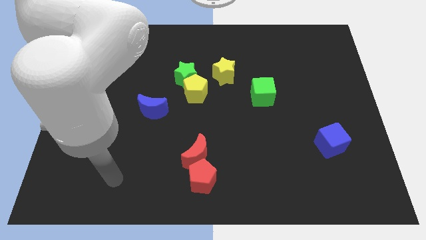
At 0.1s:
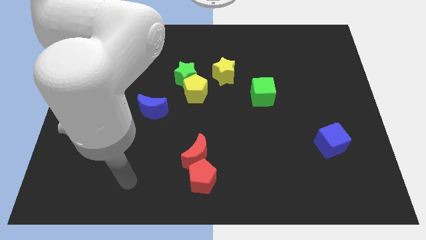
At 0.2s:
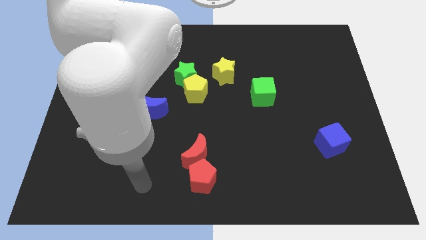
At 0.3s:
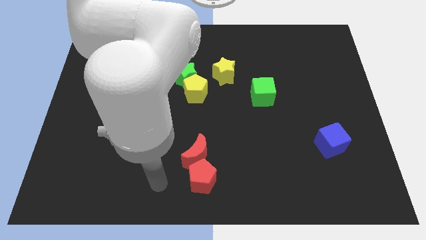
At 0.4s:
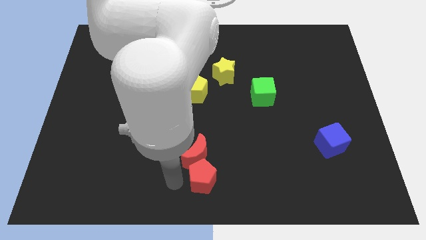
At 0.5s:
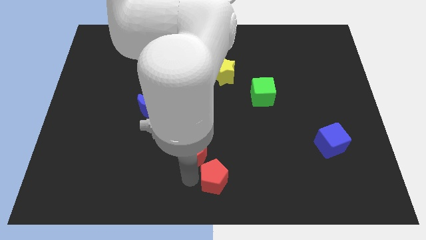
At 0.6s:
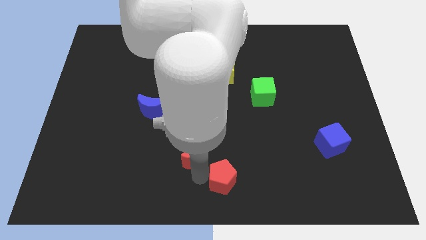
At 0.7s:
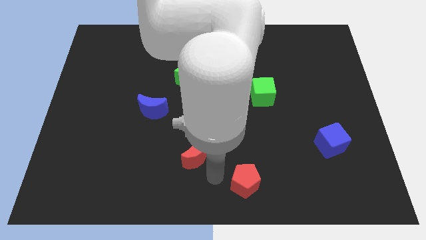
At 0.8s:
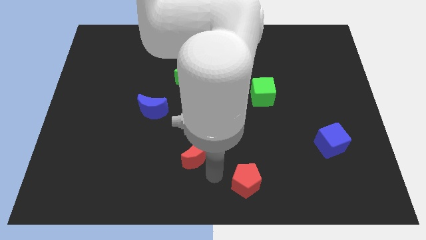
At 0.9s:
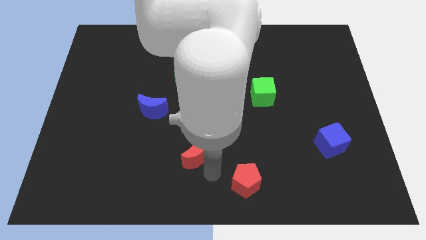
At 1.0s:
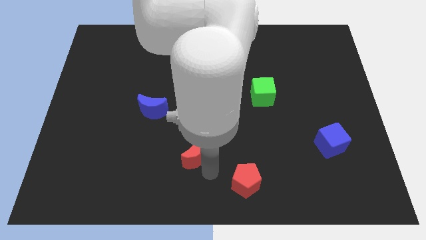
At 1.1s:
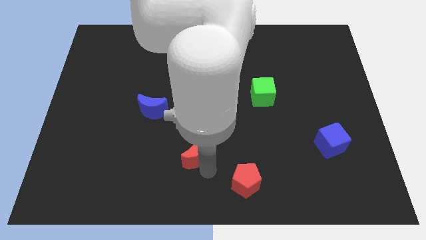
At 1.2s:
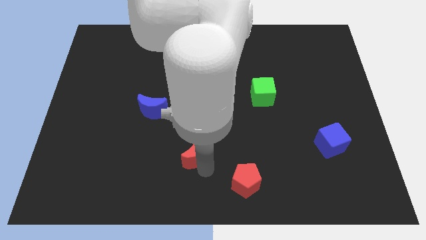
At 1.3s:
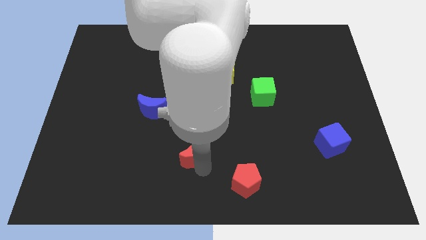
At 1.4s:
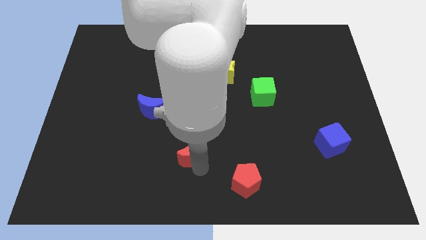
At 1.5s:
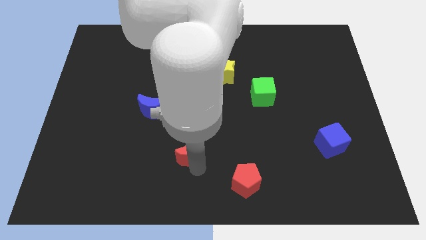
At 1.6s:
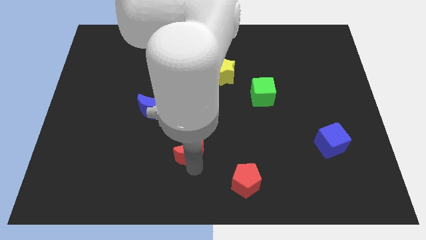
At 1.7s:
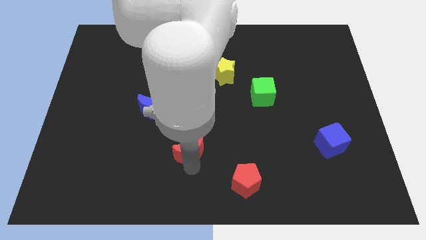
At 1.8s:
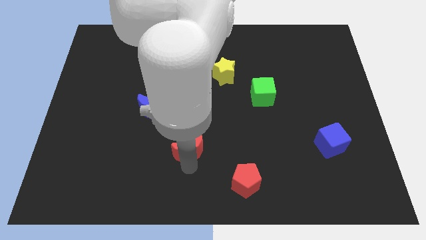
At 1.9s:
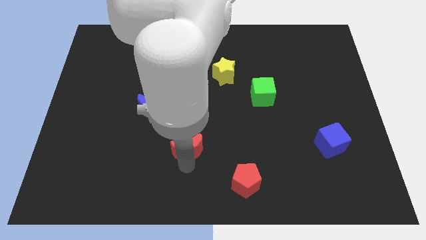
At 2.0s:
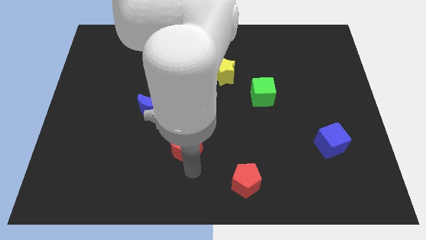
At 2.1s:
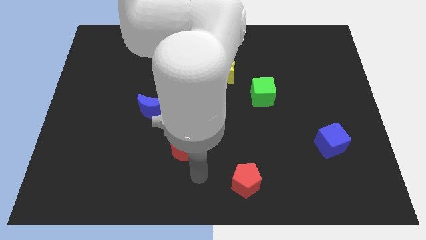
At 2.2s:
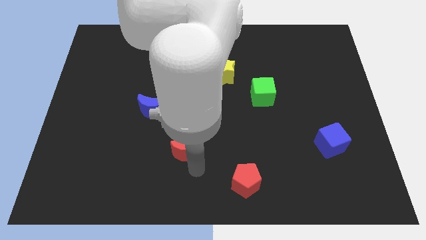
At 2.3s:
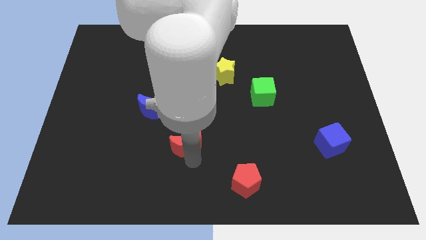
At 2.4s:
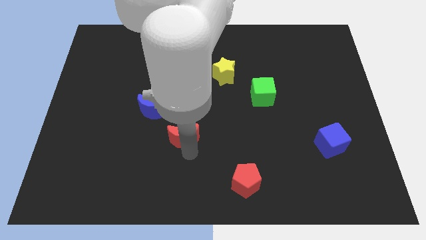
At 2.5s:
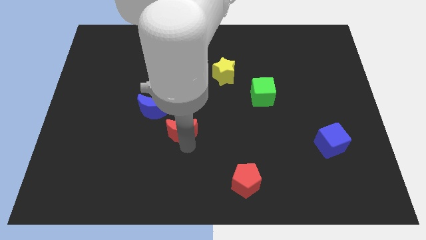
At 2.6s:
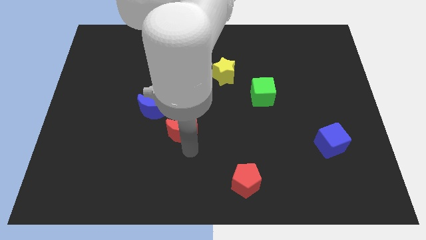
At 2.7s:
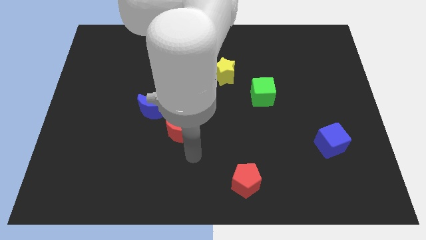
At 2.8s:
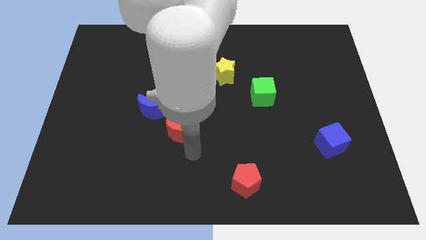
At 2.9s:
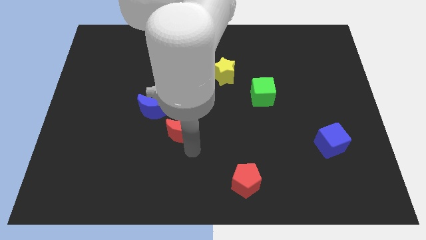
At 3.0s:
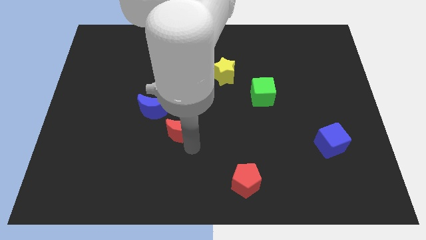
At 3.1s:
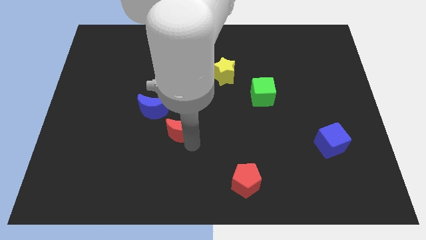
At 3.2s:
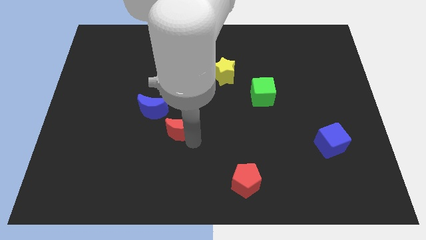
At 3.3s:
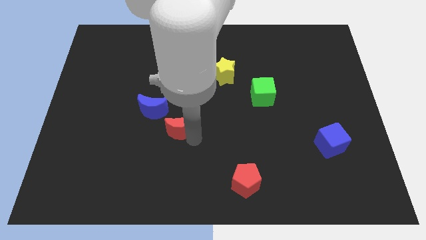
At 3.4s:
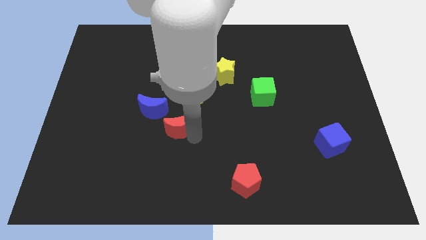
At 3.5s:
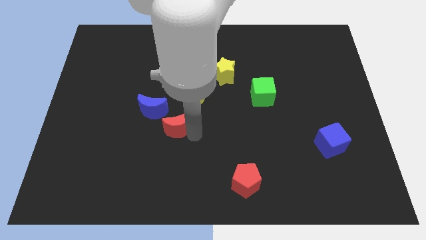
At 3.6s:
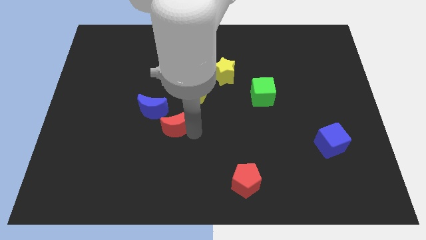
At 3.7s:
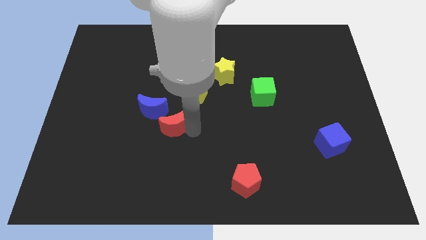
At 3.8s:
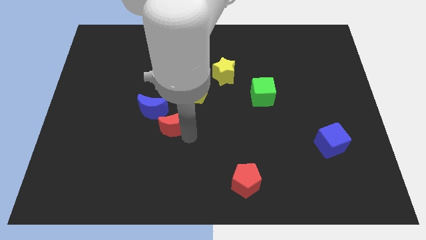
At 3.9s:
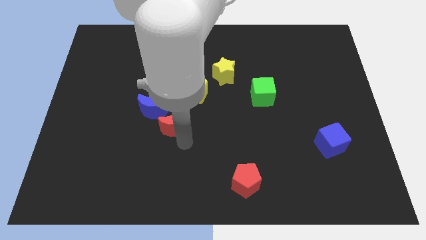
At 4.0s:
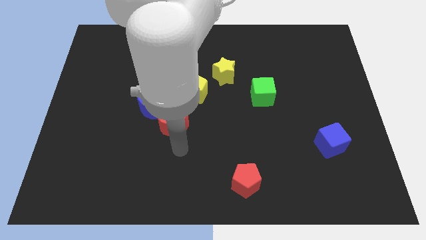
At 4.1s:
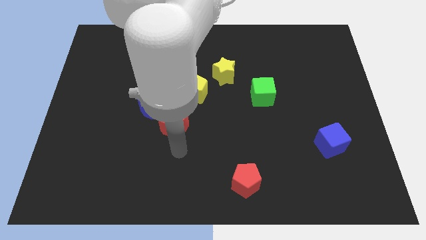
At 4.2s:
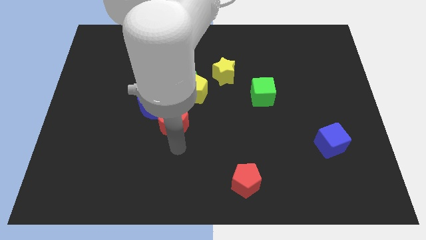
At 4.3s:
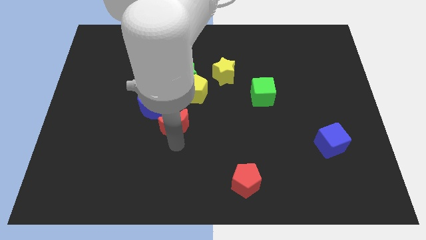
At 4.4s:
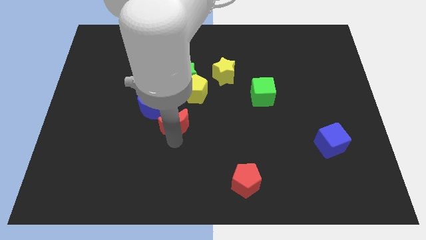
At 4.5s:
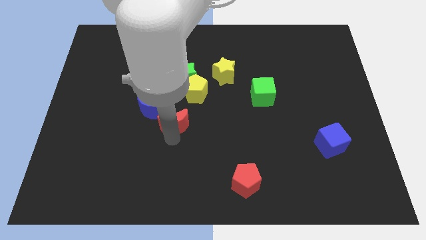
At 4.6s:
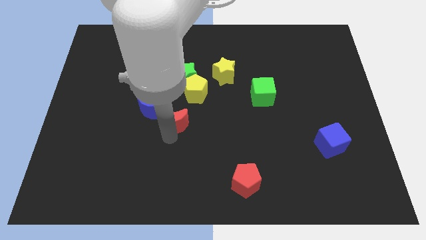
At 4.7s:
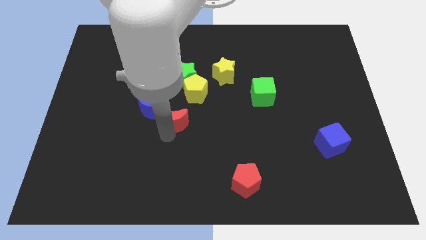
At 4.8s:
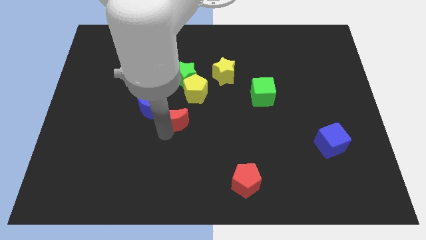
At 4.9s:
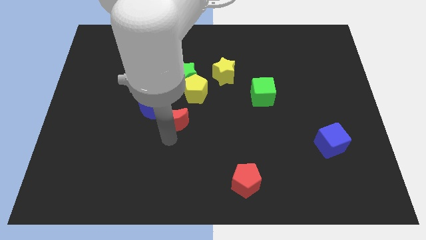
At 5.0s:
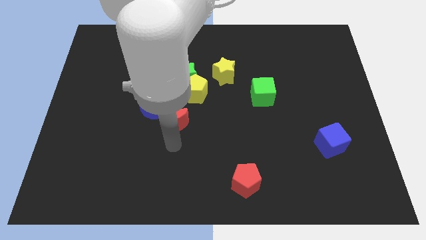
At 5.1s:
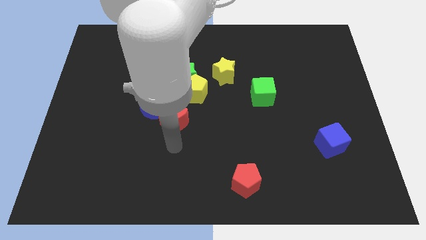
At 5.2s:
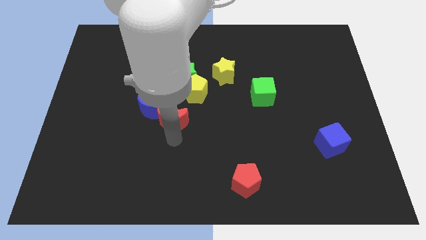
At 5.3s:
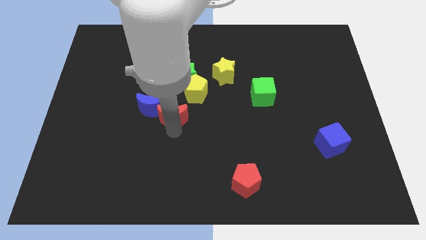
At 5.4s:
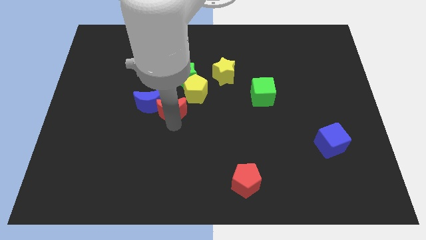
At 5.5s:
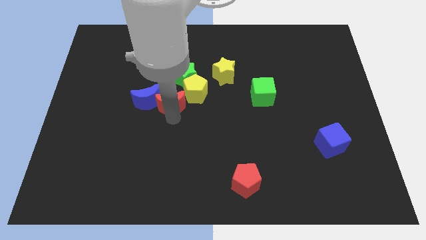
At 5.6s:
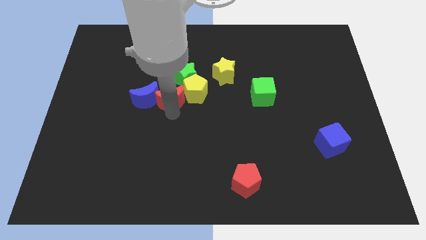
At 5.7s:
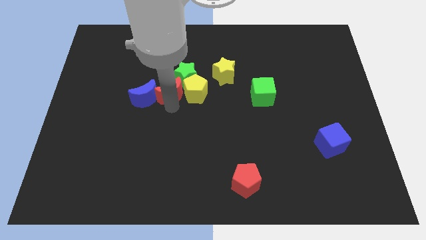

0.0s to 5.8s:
put the red moon to the top left of the yellow pentagon

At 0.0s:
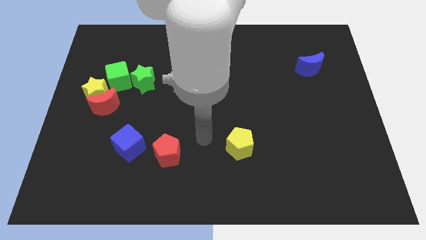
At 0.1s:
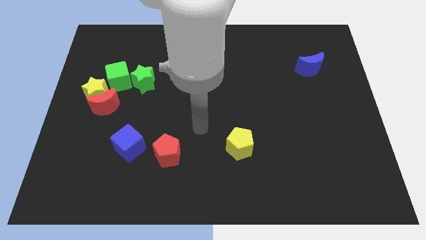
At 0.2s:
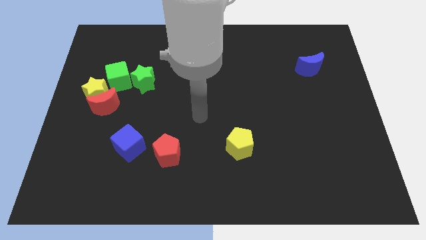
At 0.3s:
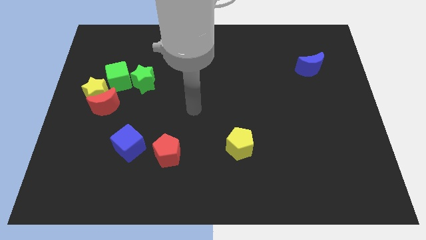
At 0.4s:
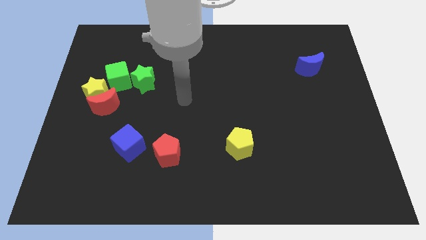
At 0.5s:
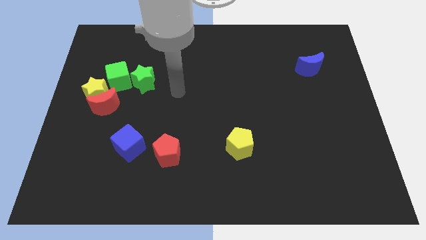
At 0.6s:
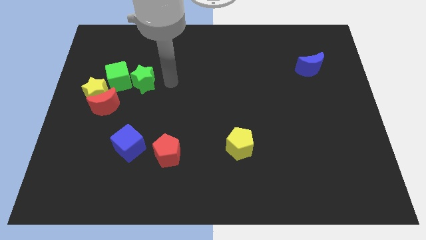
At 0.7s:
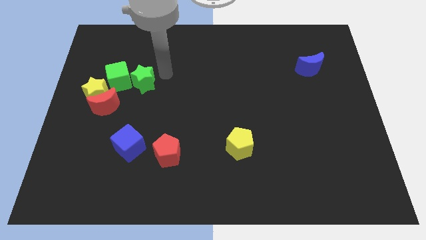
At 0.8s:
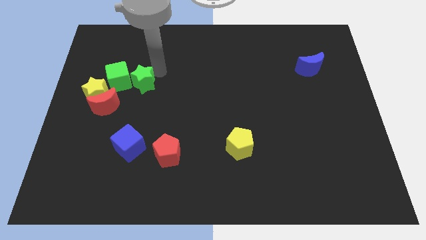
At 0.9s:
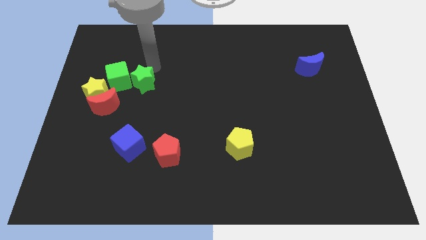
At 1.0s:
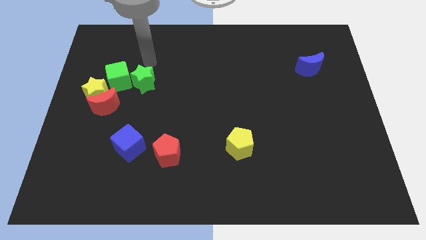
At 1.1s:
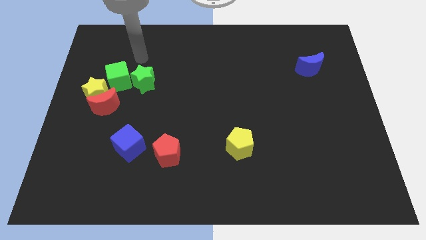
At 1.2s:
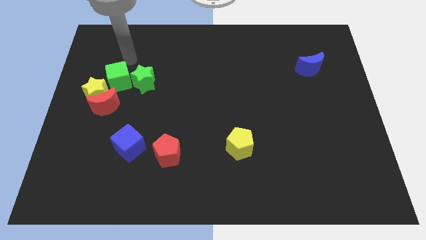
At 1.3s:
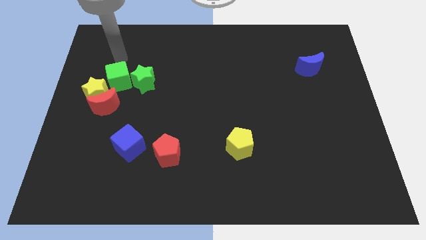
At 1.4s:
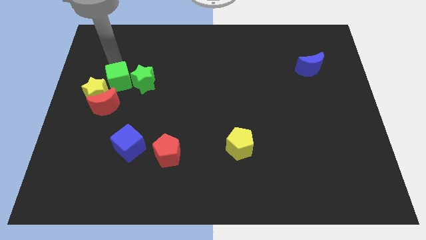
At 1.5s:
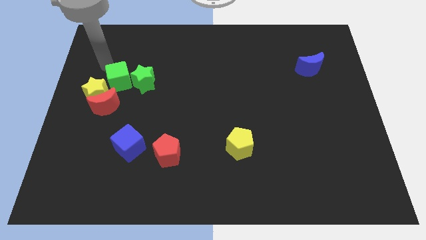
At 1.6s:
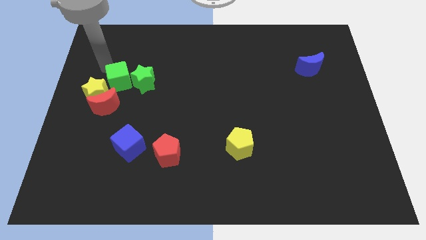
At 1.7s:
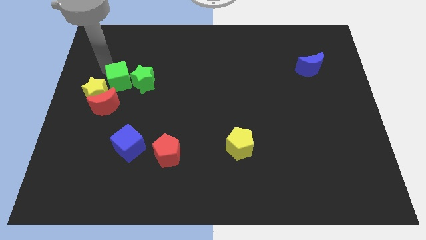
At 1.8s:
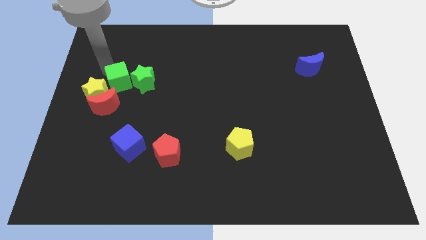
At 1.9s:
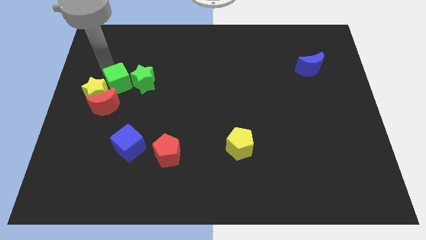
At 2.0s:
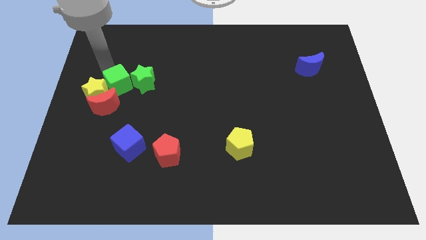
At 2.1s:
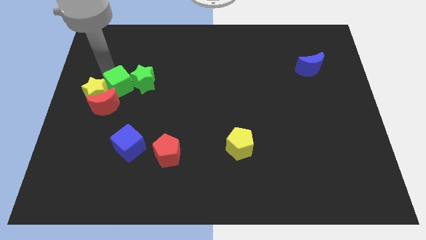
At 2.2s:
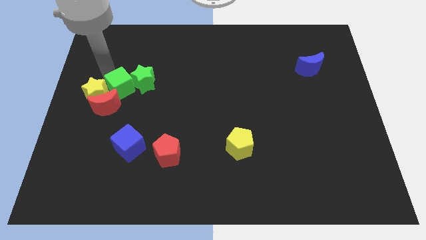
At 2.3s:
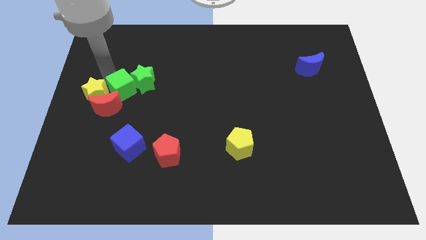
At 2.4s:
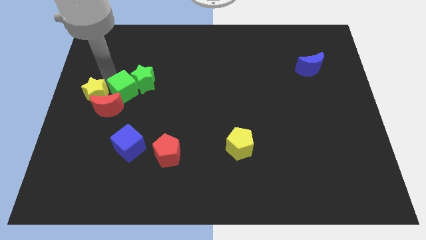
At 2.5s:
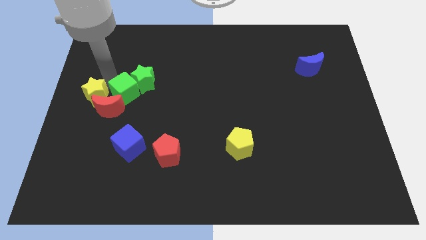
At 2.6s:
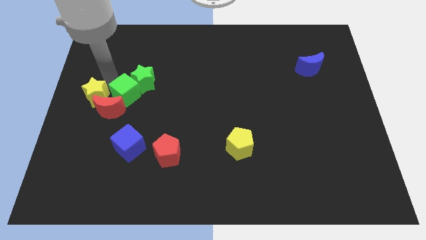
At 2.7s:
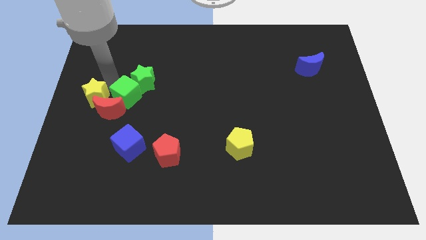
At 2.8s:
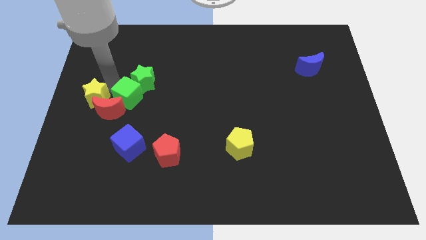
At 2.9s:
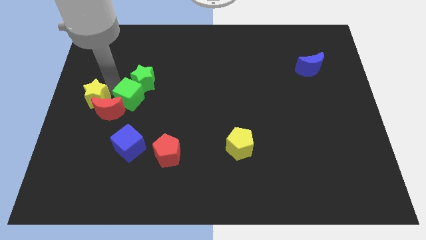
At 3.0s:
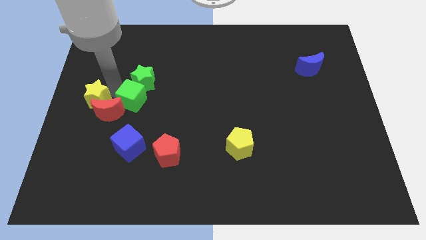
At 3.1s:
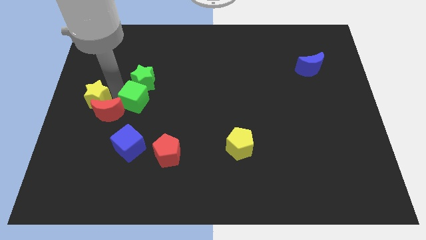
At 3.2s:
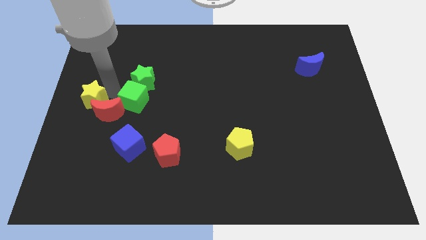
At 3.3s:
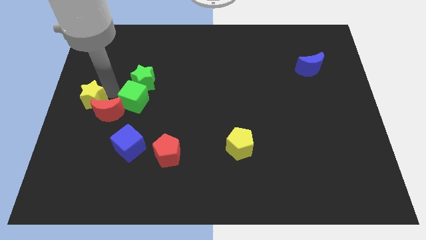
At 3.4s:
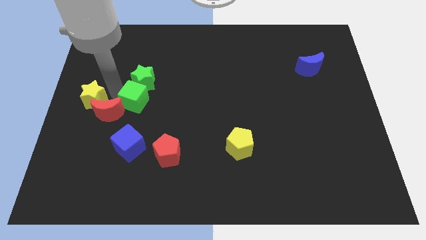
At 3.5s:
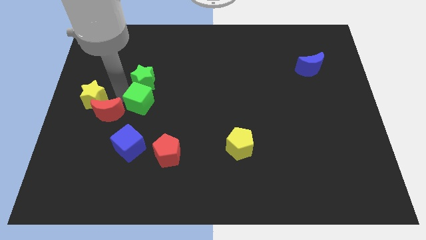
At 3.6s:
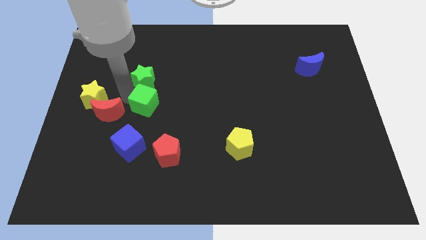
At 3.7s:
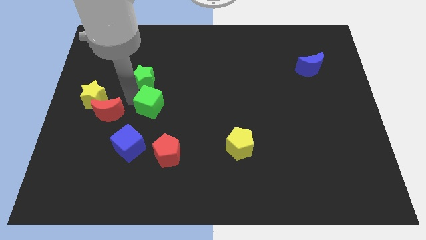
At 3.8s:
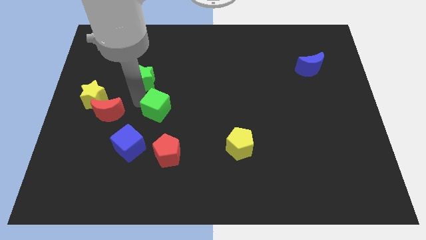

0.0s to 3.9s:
slide the green cube to the top of the red pentagon
